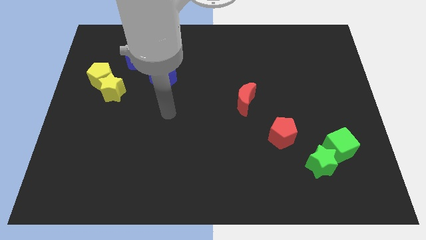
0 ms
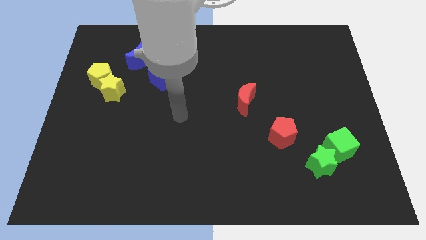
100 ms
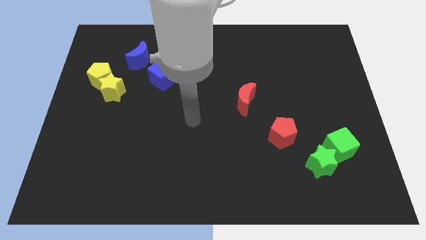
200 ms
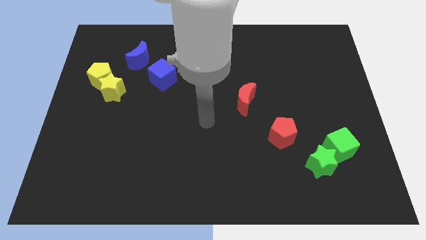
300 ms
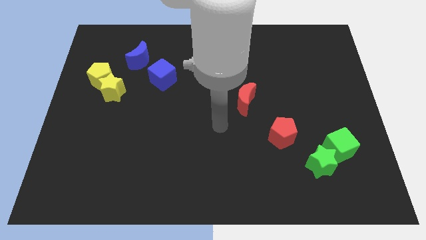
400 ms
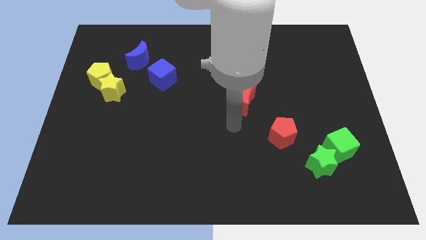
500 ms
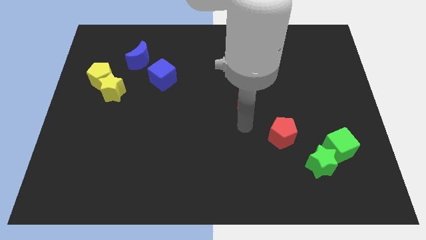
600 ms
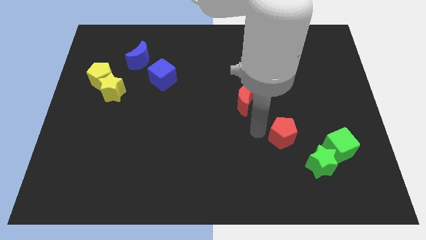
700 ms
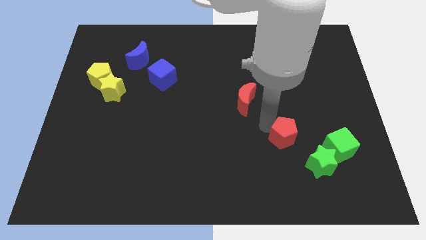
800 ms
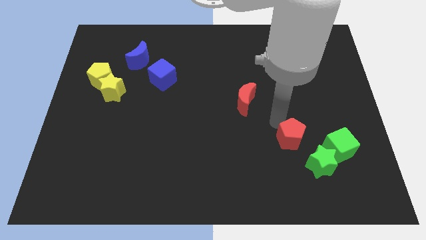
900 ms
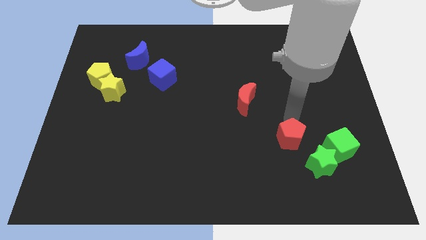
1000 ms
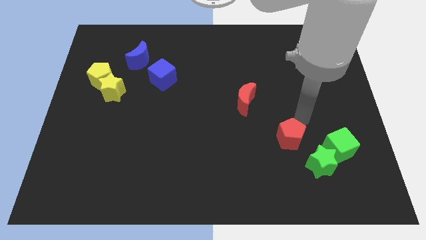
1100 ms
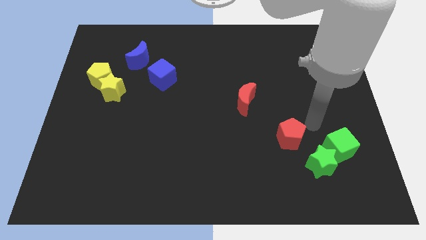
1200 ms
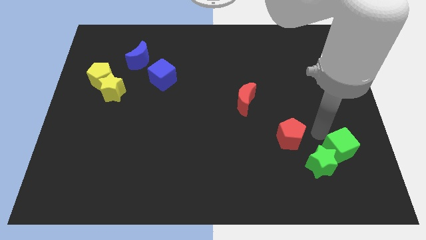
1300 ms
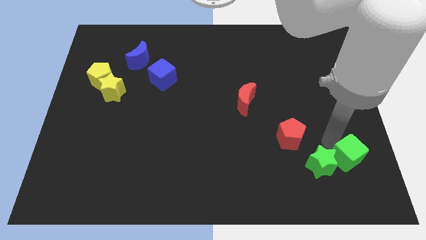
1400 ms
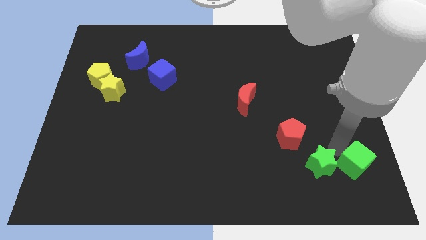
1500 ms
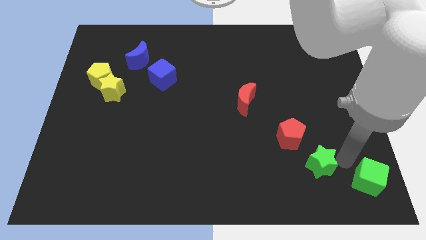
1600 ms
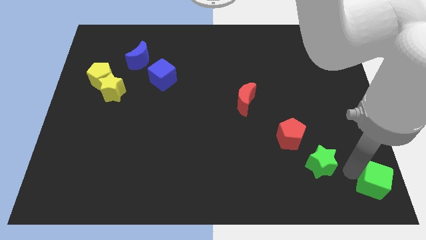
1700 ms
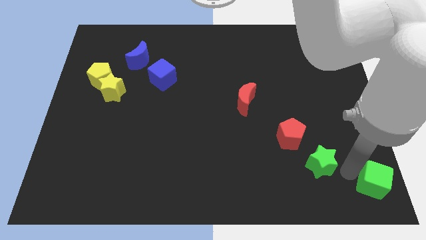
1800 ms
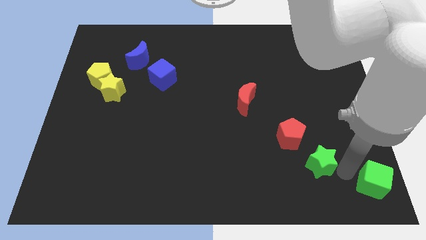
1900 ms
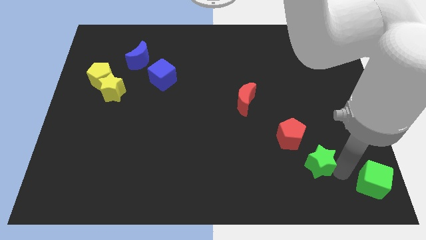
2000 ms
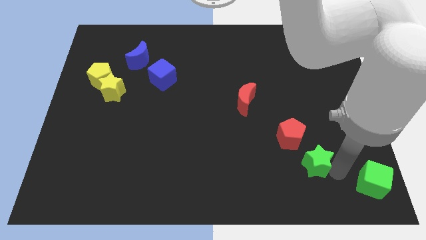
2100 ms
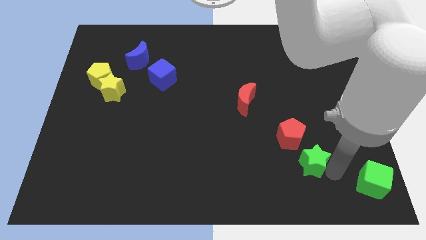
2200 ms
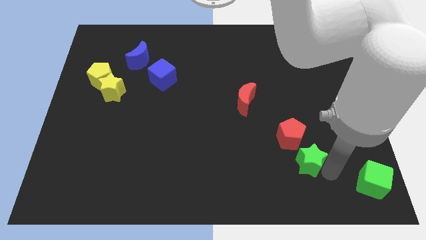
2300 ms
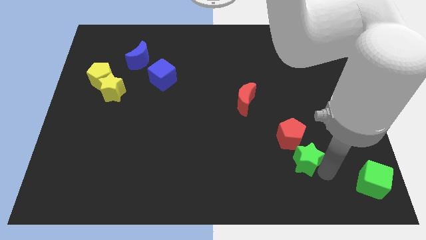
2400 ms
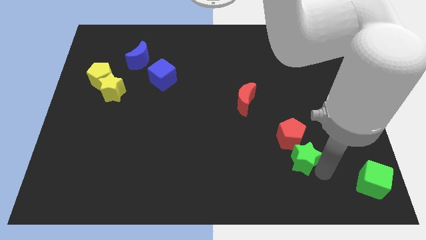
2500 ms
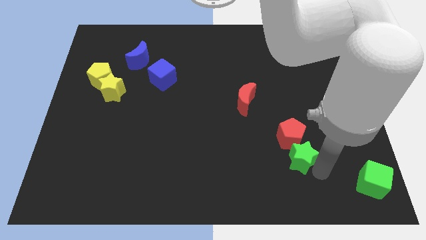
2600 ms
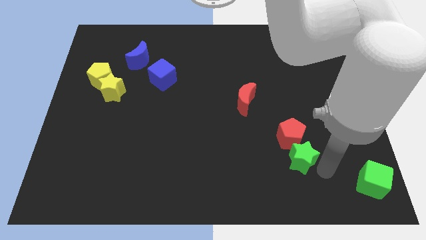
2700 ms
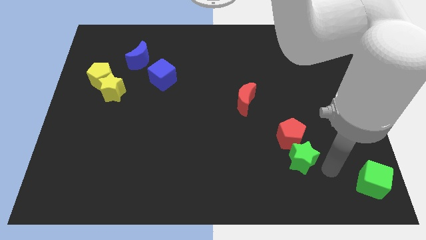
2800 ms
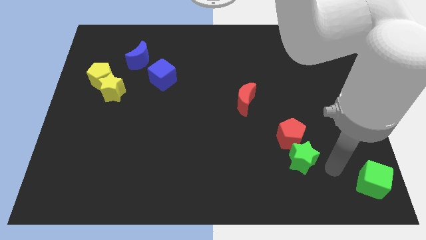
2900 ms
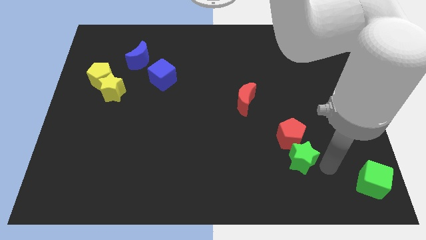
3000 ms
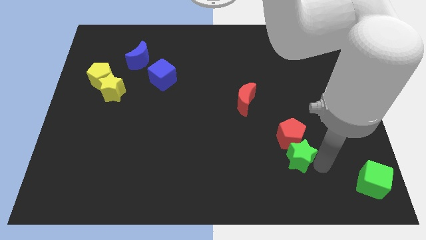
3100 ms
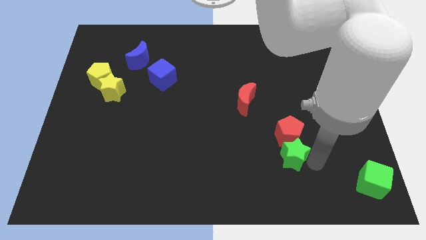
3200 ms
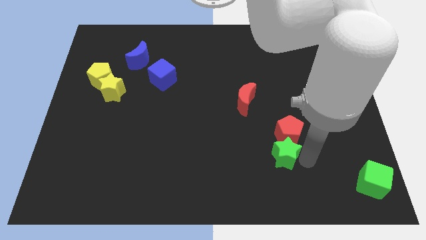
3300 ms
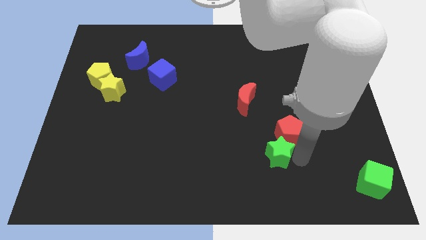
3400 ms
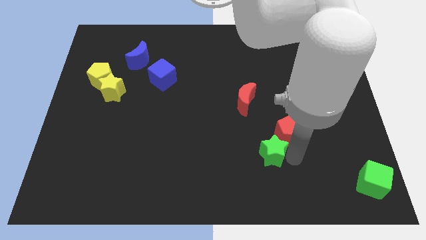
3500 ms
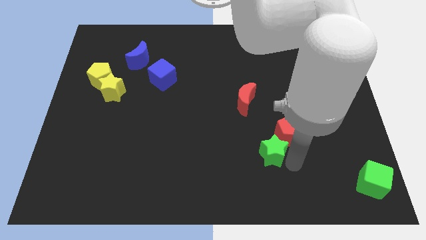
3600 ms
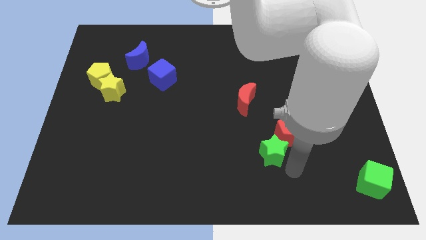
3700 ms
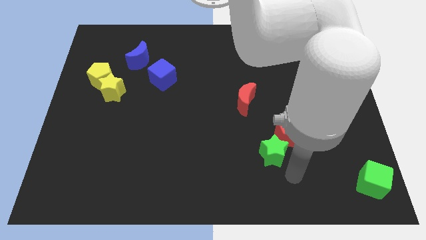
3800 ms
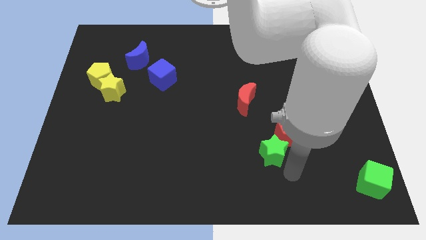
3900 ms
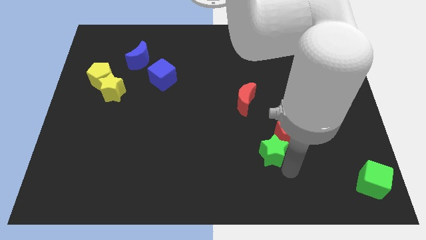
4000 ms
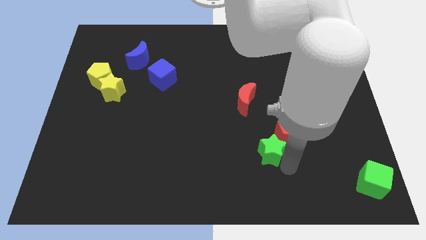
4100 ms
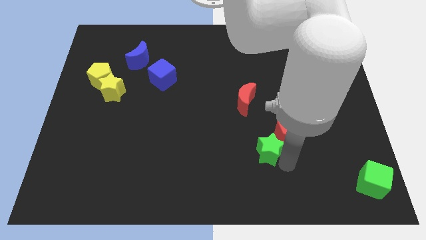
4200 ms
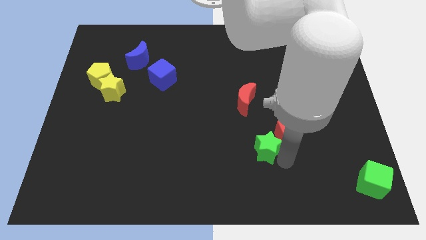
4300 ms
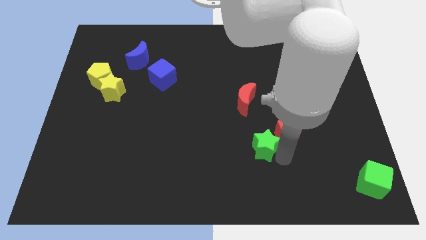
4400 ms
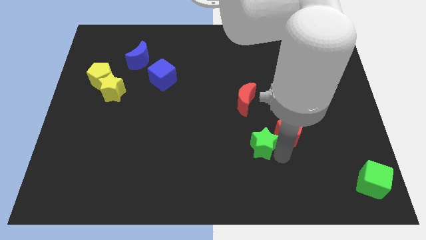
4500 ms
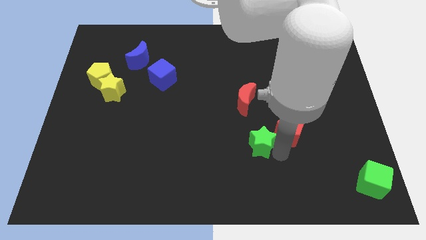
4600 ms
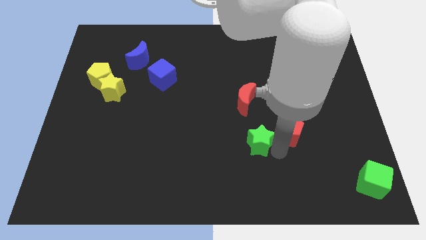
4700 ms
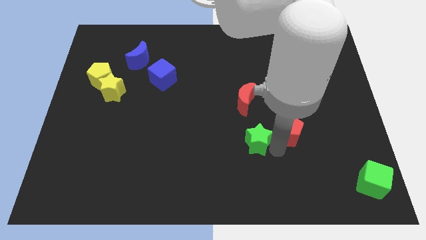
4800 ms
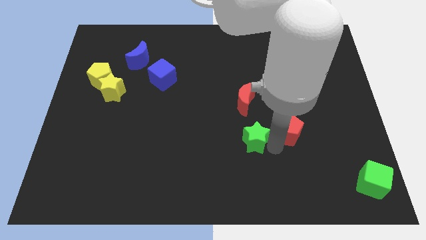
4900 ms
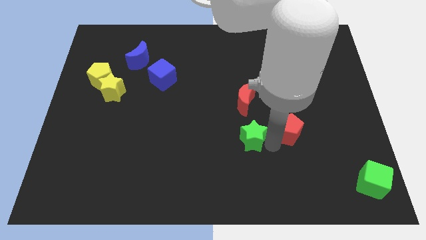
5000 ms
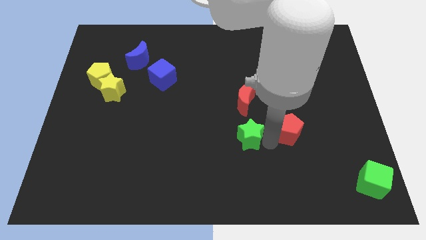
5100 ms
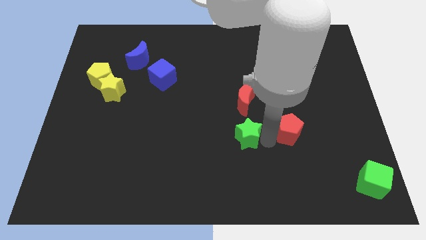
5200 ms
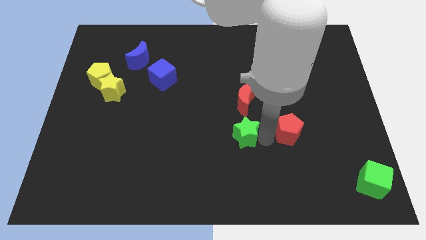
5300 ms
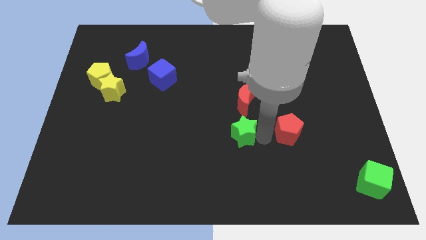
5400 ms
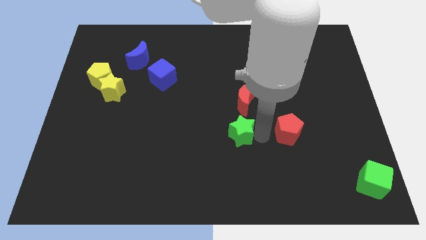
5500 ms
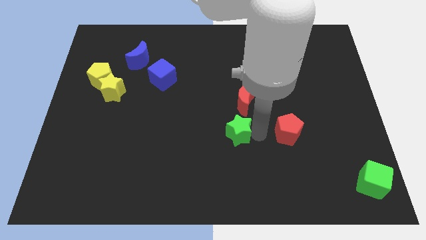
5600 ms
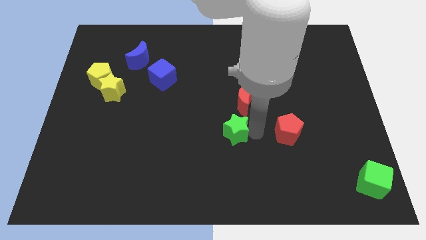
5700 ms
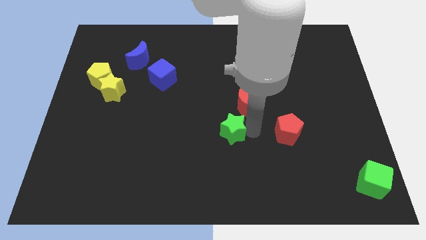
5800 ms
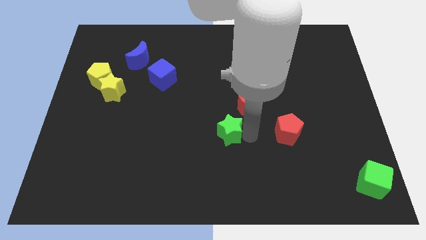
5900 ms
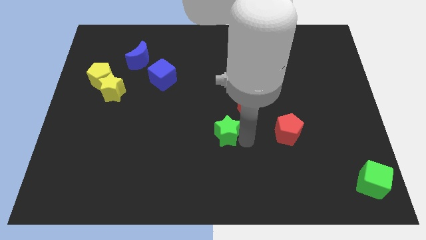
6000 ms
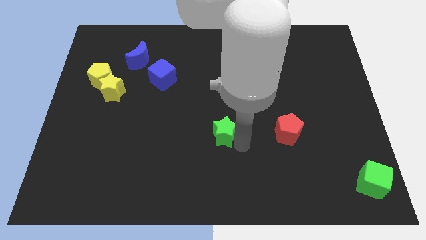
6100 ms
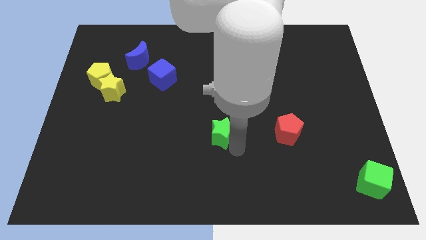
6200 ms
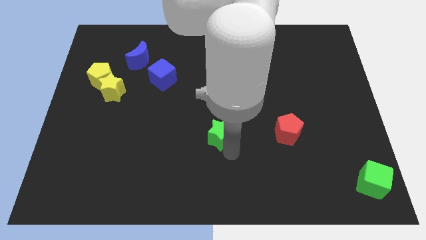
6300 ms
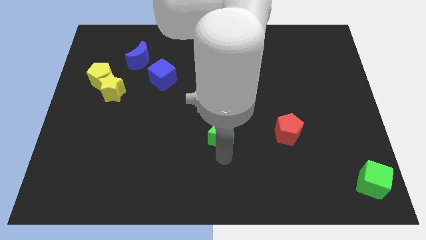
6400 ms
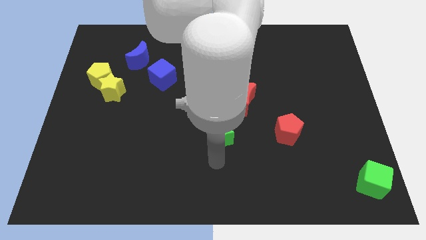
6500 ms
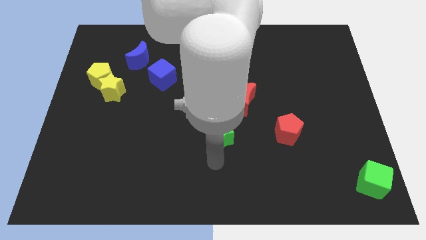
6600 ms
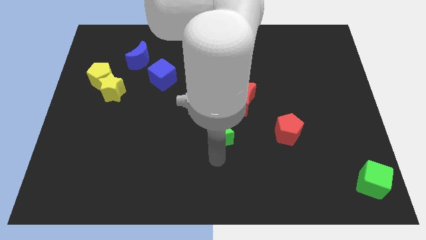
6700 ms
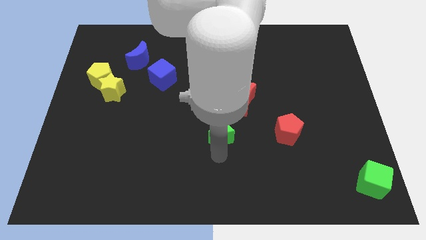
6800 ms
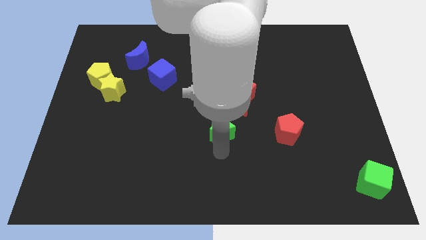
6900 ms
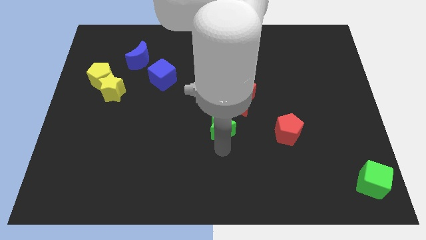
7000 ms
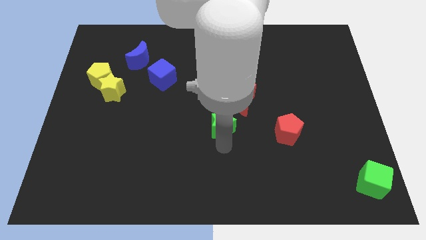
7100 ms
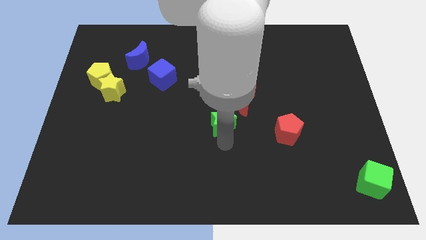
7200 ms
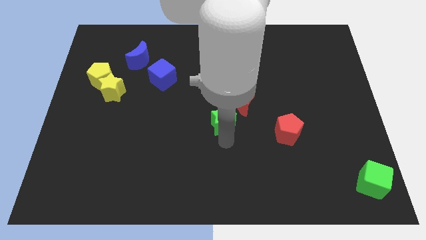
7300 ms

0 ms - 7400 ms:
slide the green star diagonally up and left

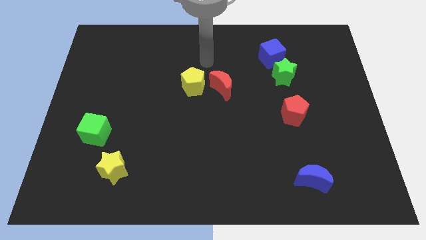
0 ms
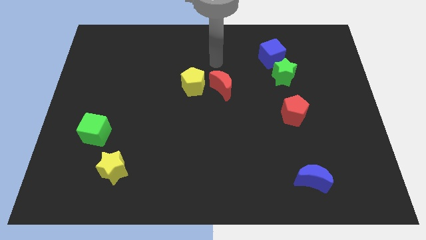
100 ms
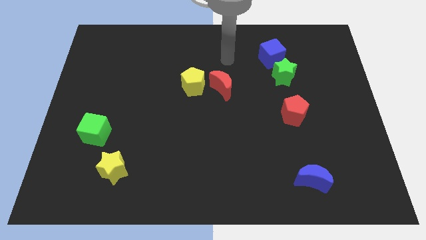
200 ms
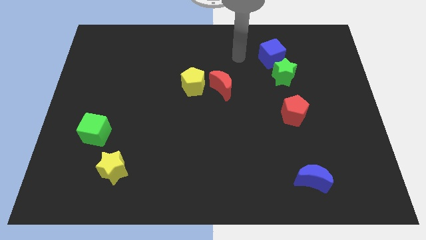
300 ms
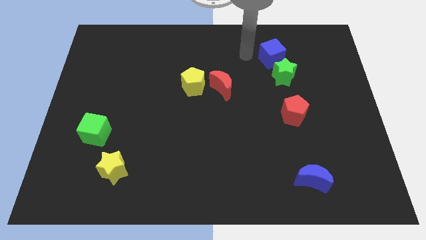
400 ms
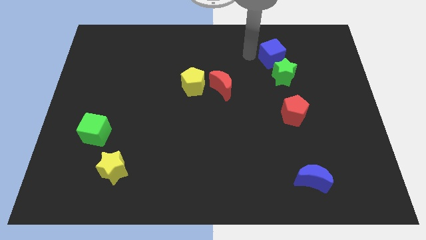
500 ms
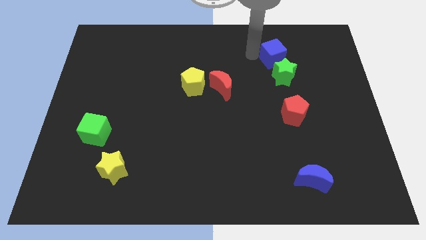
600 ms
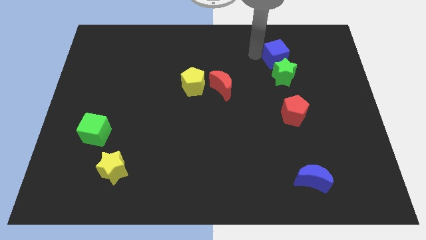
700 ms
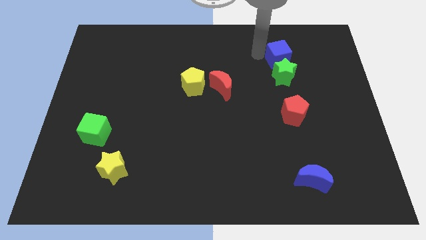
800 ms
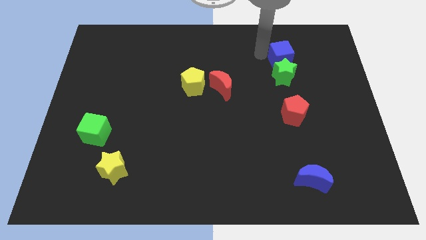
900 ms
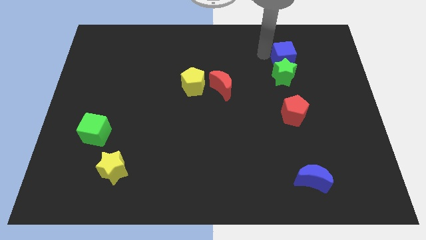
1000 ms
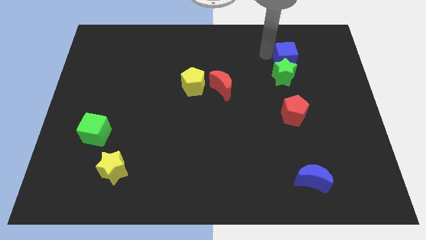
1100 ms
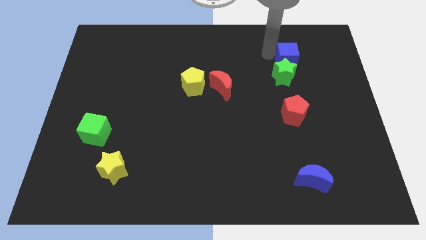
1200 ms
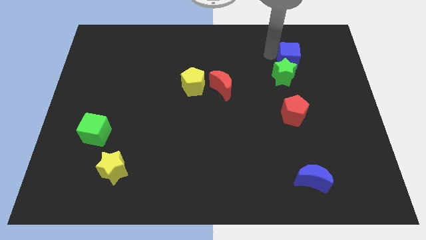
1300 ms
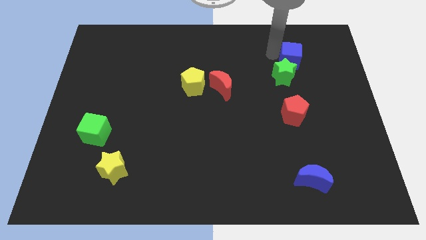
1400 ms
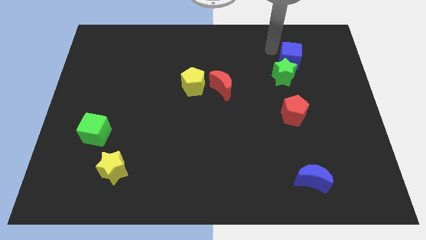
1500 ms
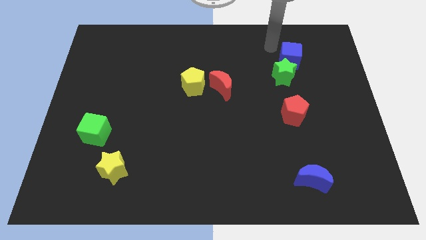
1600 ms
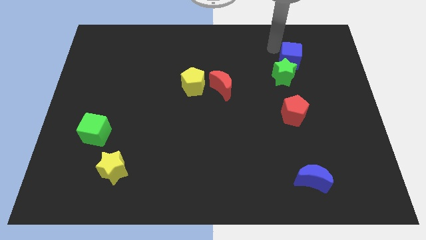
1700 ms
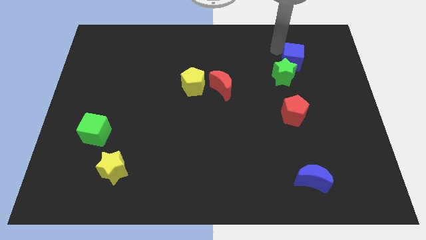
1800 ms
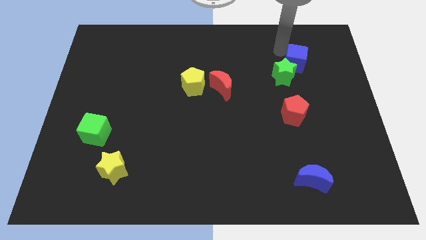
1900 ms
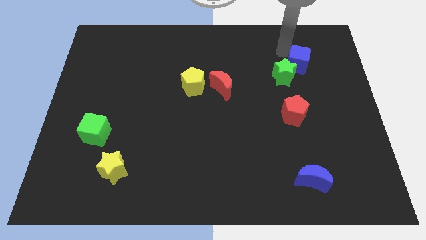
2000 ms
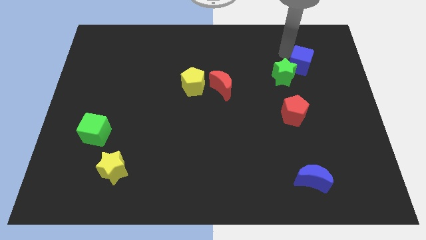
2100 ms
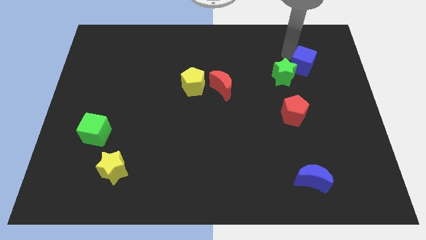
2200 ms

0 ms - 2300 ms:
push the blue cube downwards and to the right somewhat
